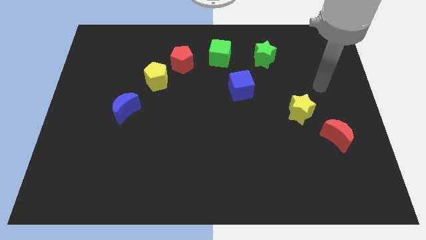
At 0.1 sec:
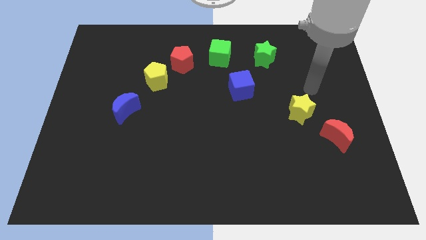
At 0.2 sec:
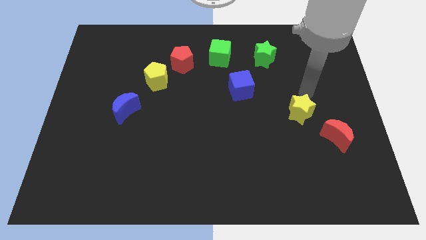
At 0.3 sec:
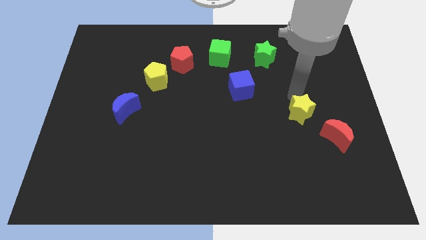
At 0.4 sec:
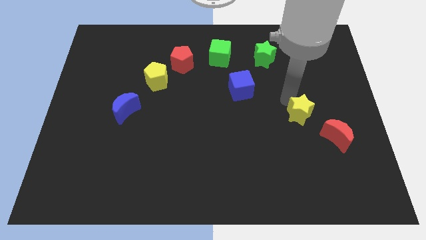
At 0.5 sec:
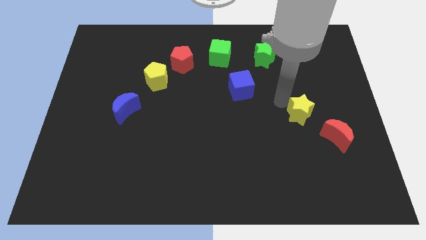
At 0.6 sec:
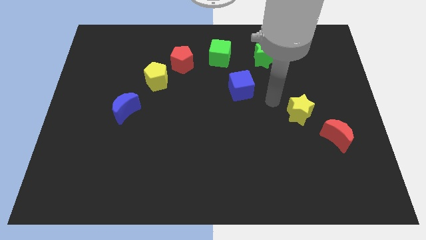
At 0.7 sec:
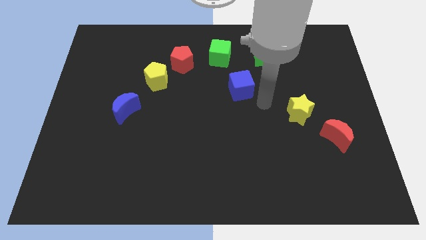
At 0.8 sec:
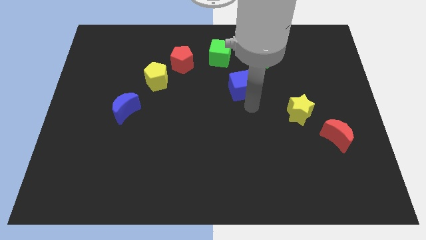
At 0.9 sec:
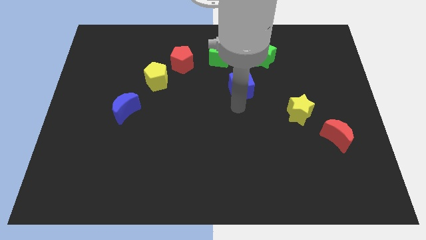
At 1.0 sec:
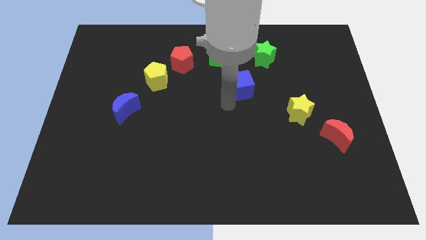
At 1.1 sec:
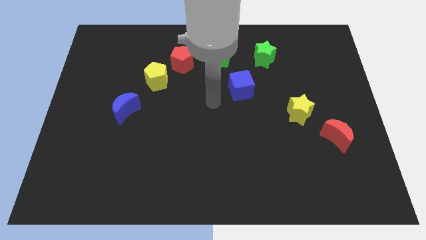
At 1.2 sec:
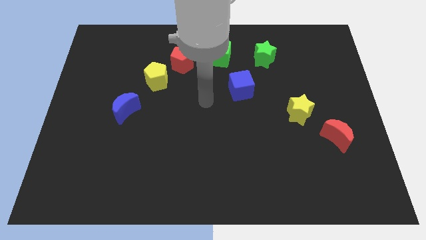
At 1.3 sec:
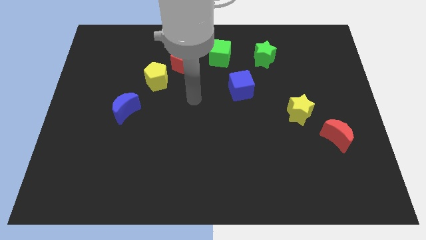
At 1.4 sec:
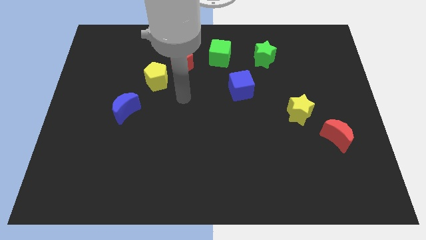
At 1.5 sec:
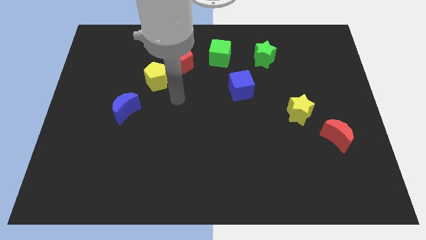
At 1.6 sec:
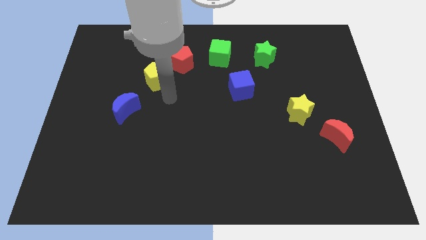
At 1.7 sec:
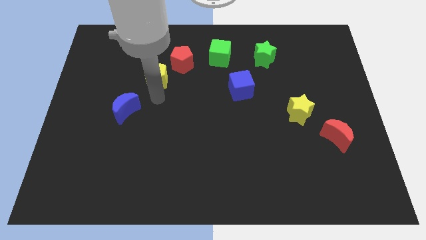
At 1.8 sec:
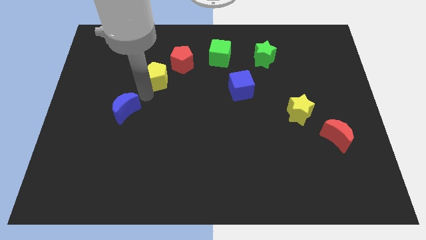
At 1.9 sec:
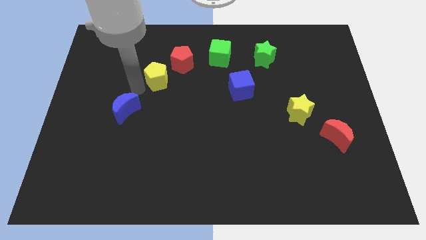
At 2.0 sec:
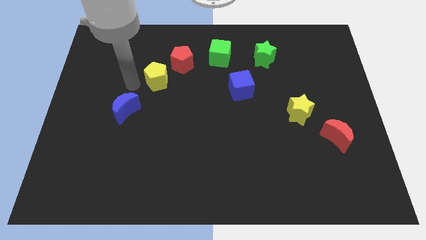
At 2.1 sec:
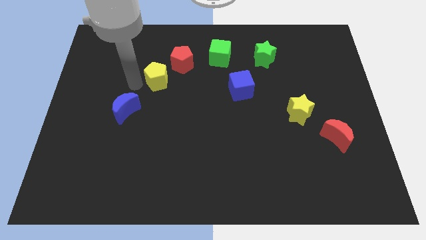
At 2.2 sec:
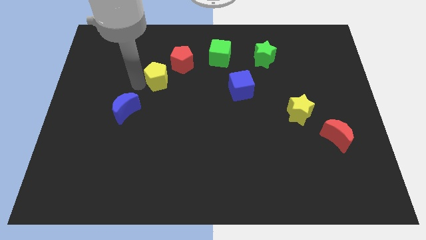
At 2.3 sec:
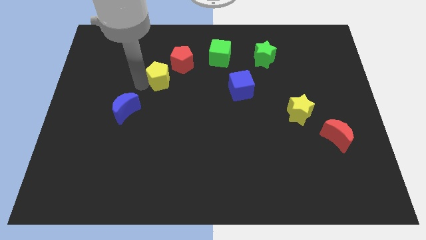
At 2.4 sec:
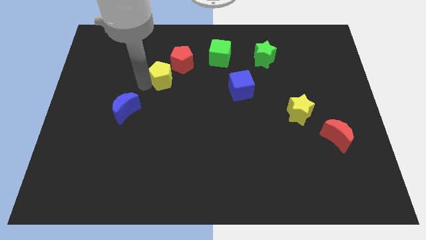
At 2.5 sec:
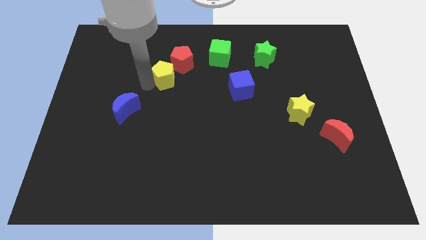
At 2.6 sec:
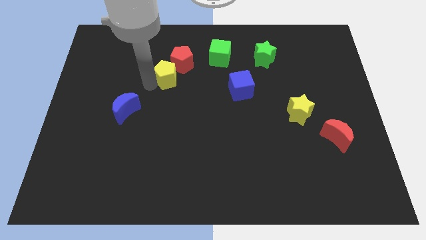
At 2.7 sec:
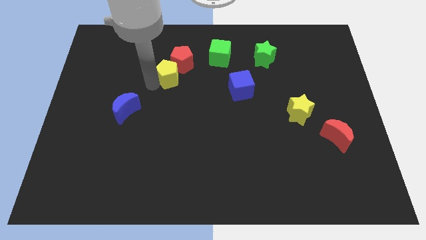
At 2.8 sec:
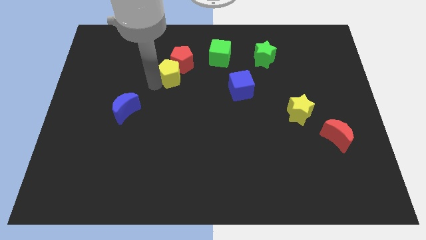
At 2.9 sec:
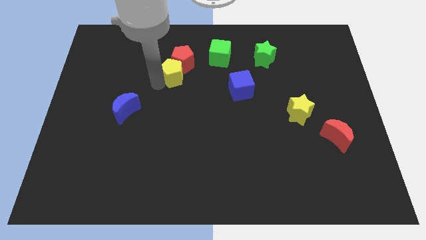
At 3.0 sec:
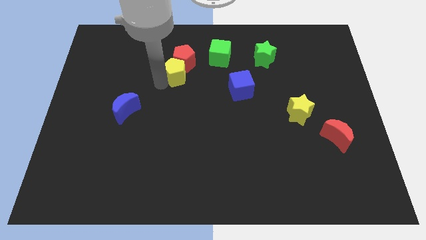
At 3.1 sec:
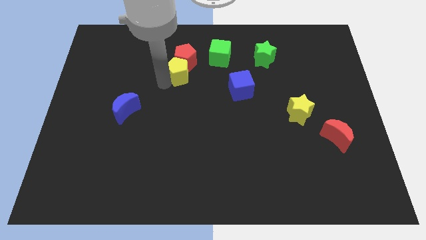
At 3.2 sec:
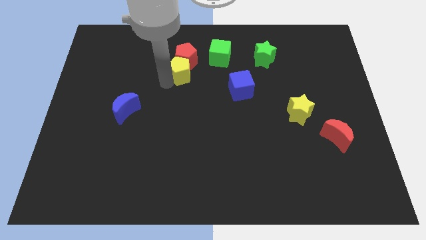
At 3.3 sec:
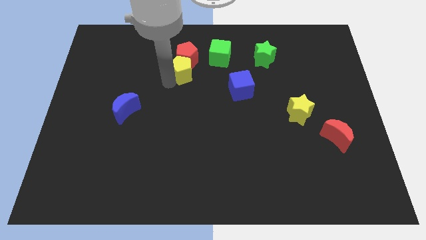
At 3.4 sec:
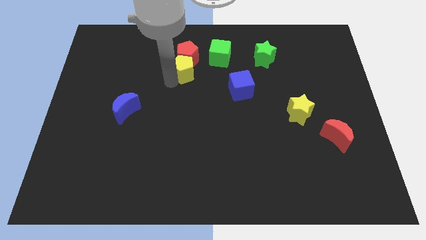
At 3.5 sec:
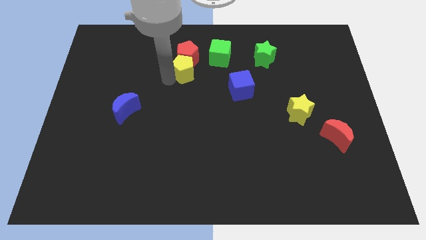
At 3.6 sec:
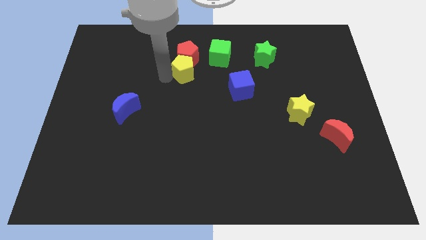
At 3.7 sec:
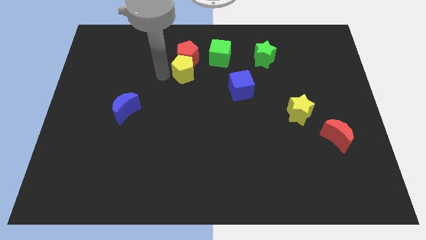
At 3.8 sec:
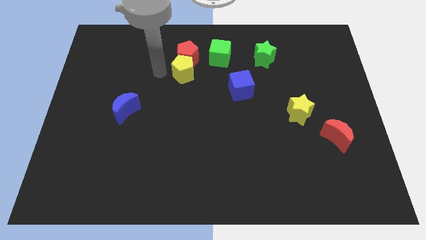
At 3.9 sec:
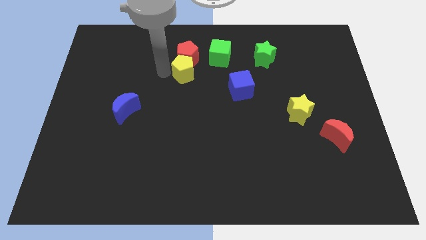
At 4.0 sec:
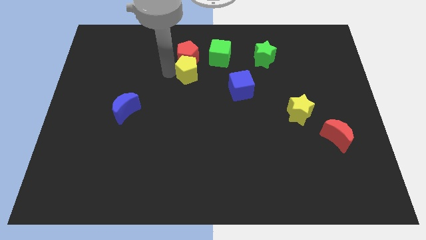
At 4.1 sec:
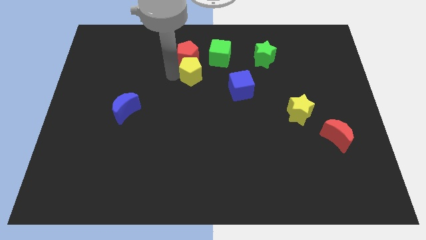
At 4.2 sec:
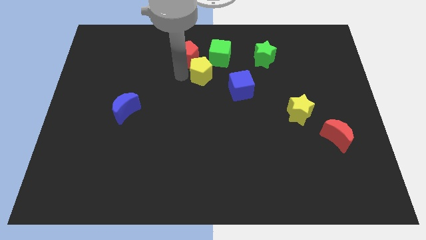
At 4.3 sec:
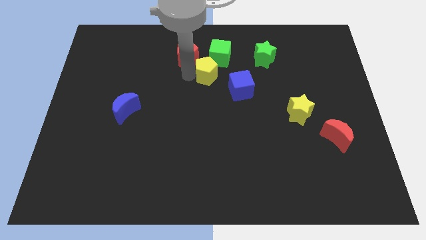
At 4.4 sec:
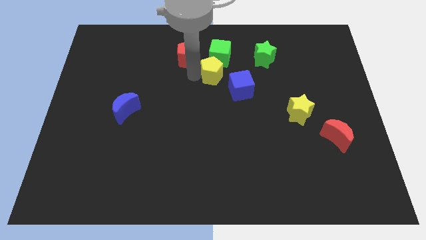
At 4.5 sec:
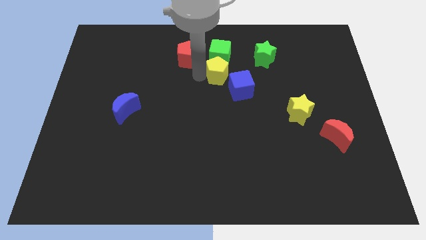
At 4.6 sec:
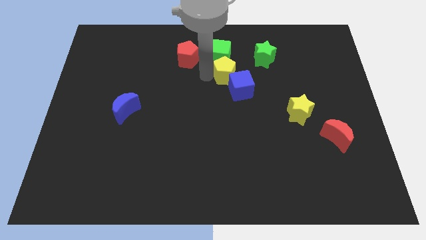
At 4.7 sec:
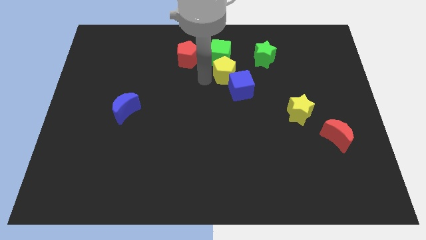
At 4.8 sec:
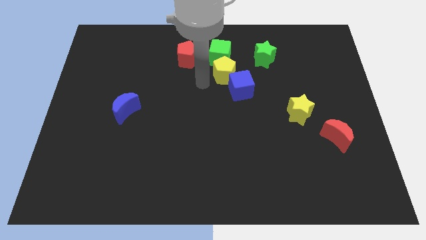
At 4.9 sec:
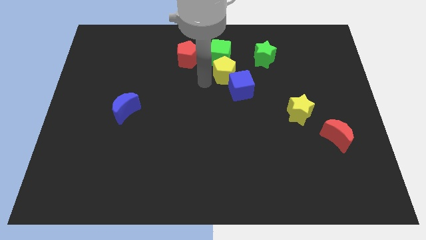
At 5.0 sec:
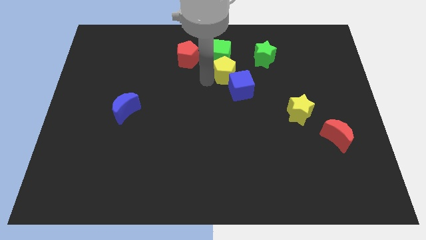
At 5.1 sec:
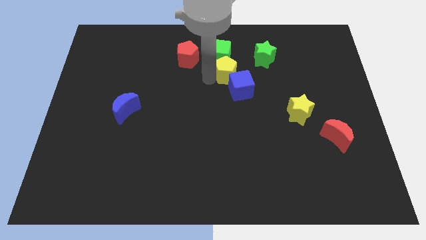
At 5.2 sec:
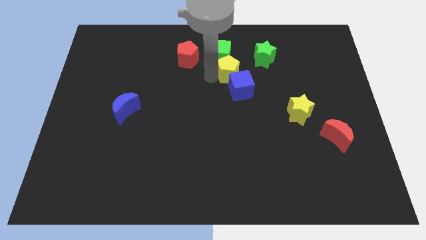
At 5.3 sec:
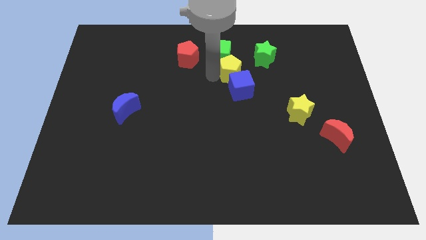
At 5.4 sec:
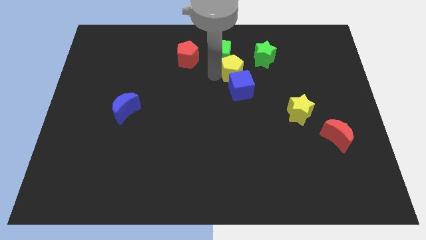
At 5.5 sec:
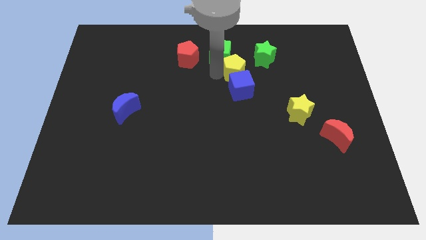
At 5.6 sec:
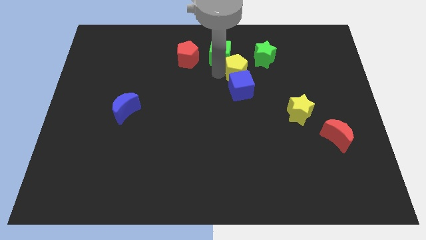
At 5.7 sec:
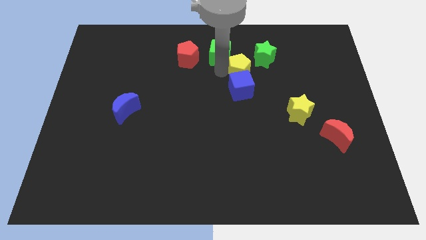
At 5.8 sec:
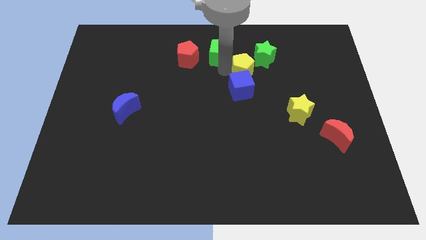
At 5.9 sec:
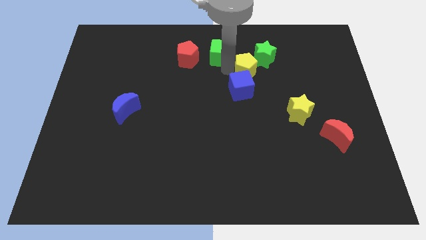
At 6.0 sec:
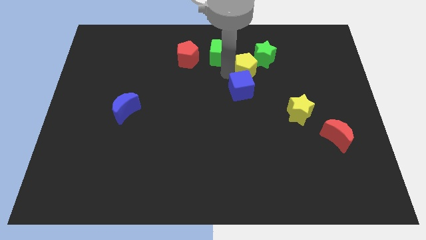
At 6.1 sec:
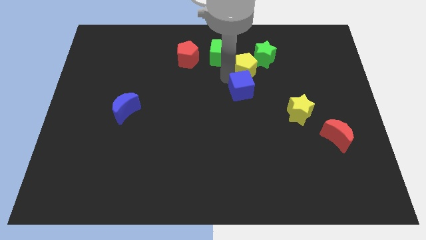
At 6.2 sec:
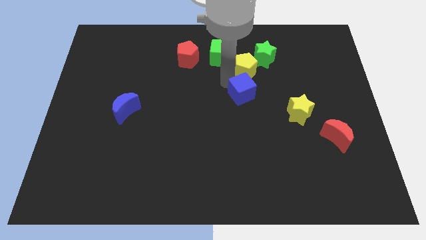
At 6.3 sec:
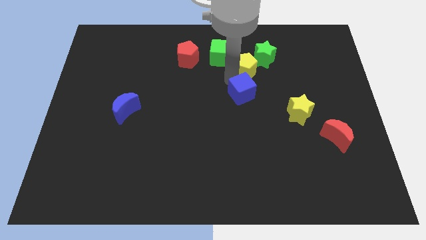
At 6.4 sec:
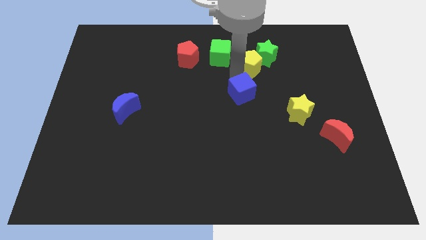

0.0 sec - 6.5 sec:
push the yellow pentagon towards the green star

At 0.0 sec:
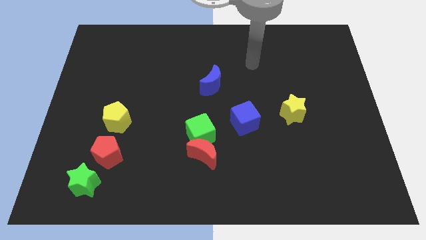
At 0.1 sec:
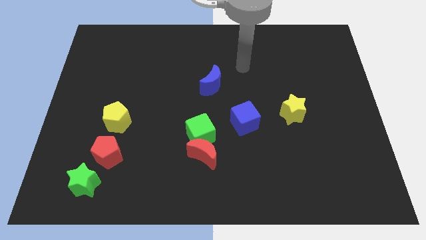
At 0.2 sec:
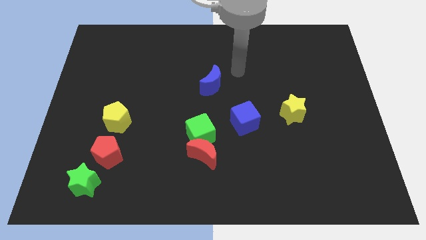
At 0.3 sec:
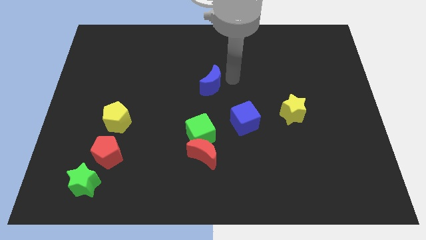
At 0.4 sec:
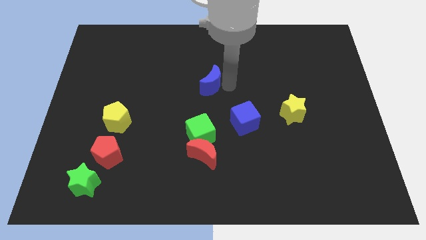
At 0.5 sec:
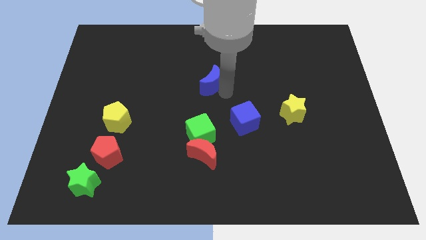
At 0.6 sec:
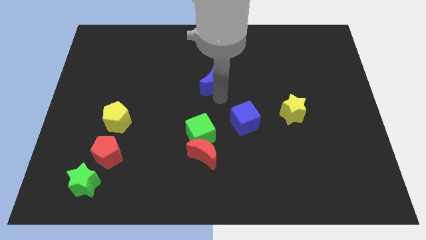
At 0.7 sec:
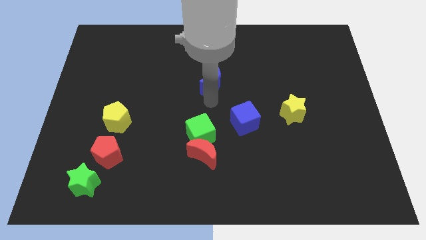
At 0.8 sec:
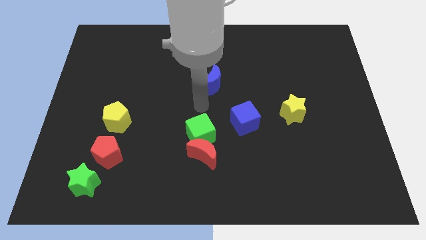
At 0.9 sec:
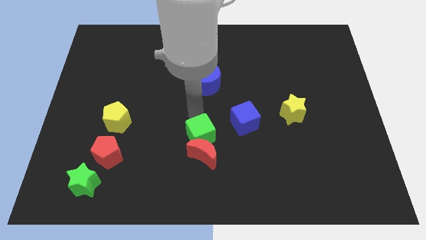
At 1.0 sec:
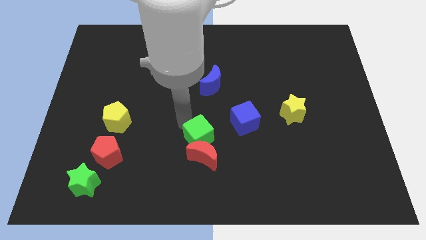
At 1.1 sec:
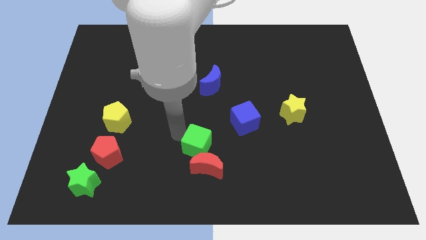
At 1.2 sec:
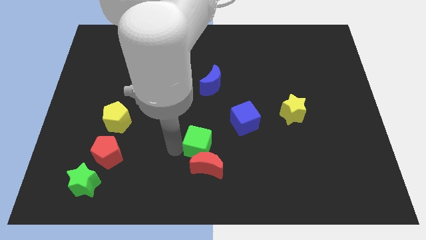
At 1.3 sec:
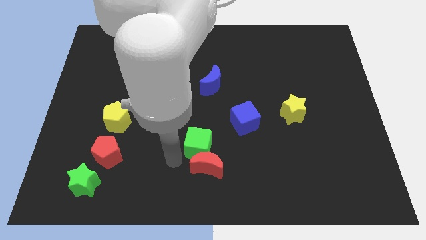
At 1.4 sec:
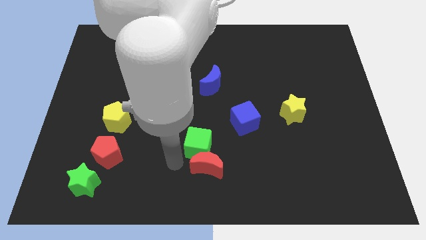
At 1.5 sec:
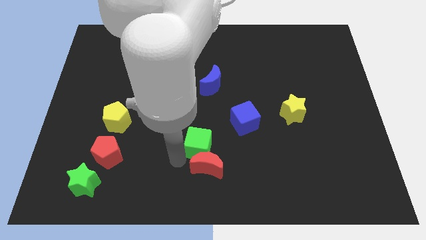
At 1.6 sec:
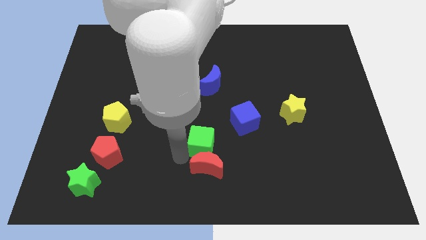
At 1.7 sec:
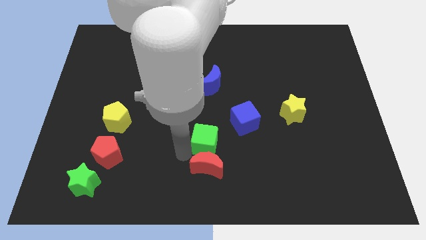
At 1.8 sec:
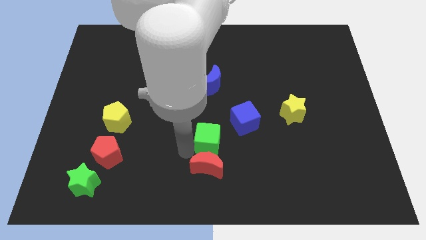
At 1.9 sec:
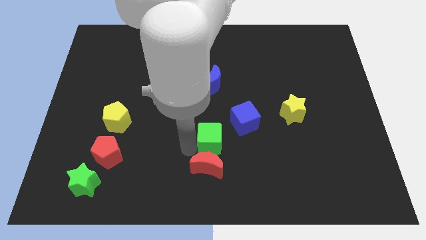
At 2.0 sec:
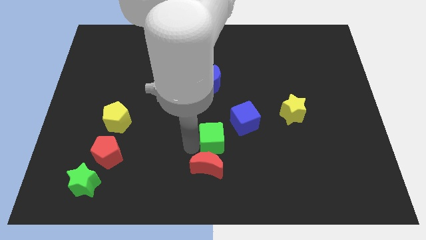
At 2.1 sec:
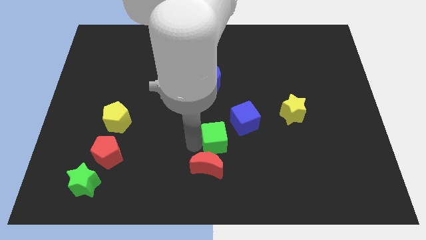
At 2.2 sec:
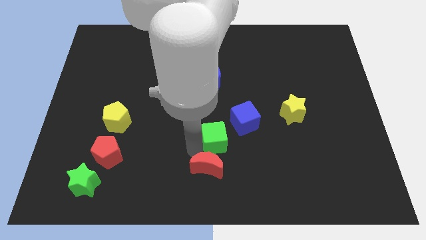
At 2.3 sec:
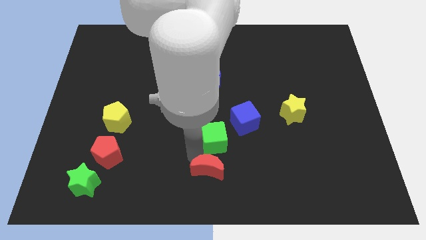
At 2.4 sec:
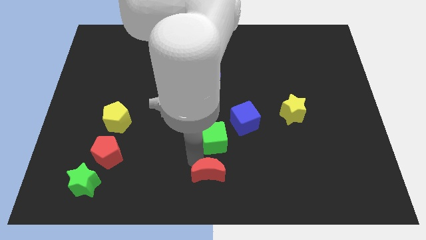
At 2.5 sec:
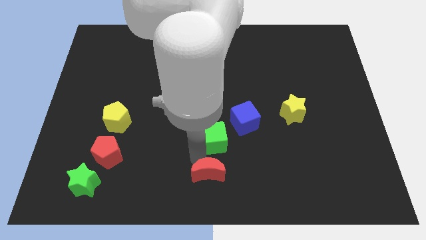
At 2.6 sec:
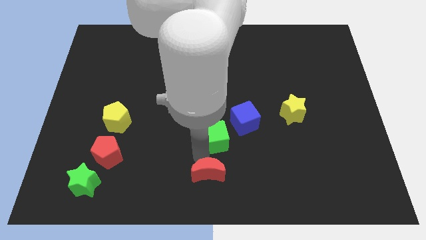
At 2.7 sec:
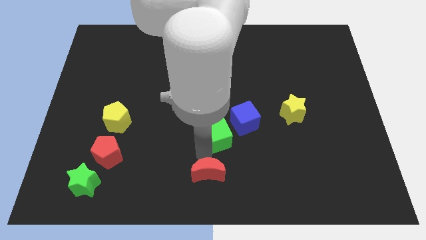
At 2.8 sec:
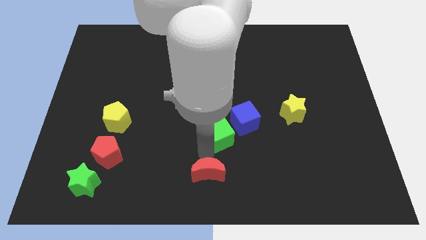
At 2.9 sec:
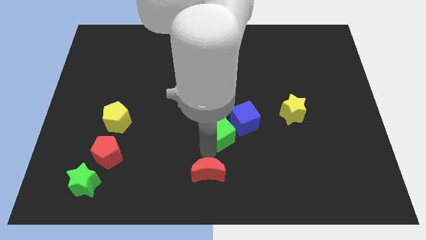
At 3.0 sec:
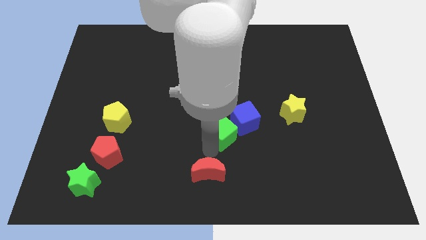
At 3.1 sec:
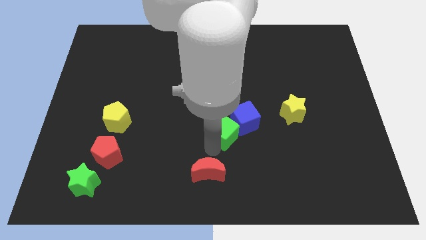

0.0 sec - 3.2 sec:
push the green cube close to the blue cube
